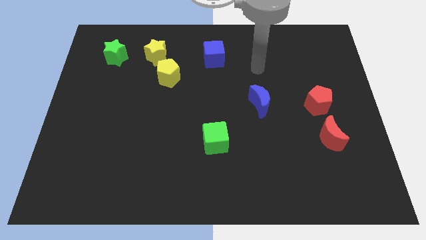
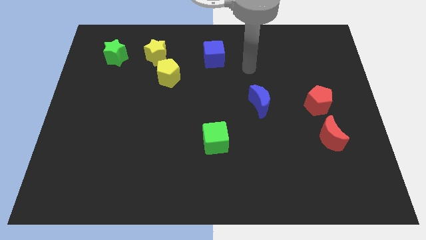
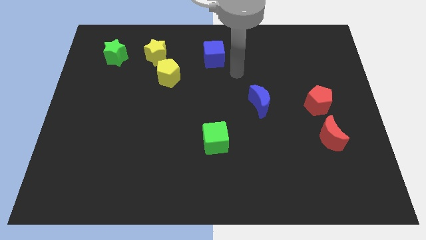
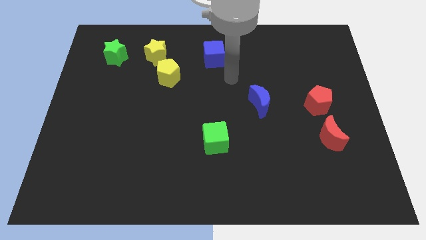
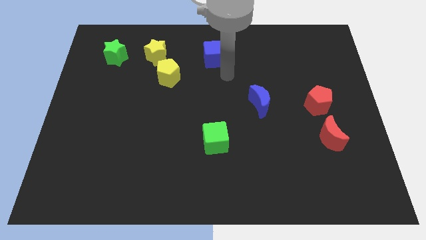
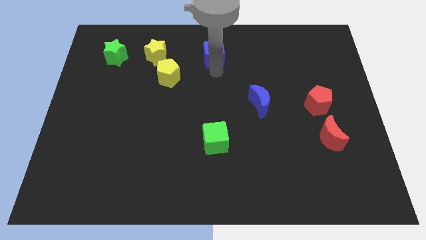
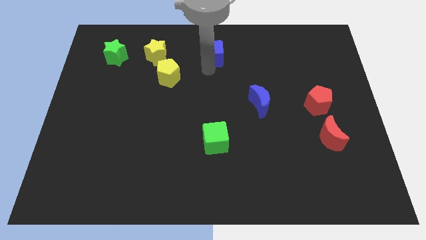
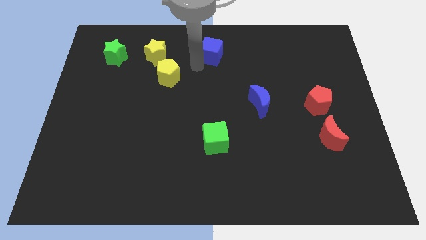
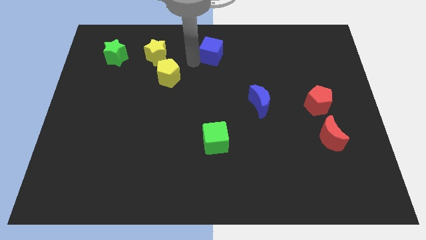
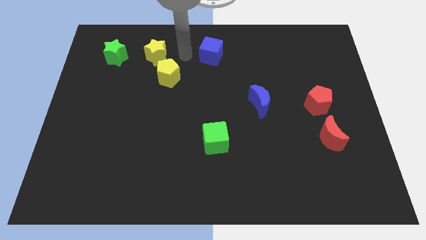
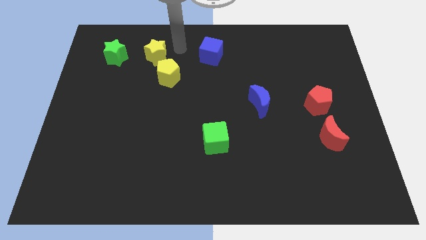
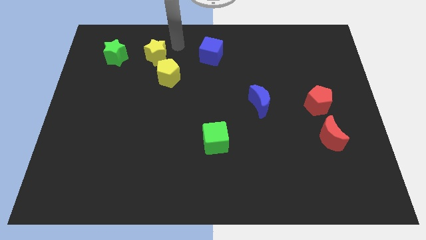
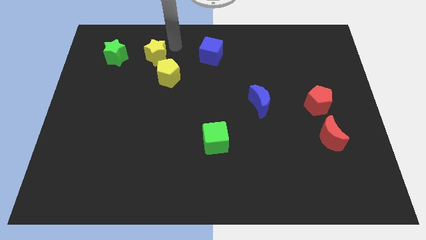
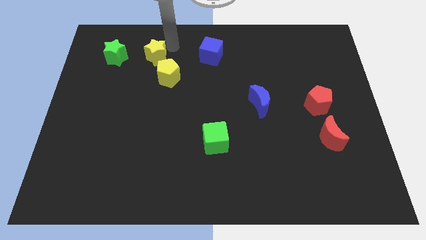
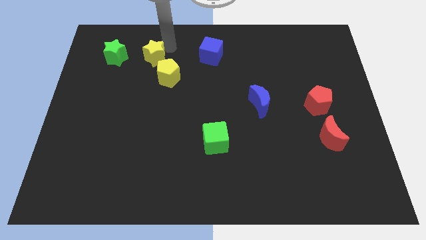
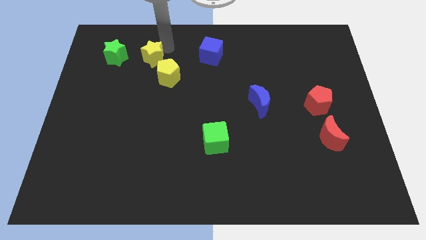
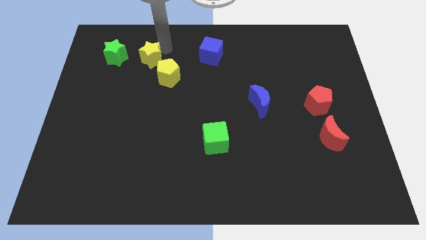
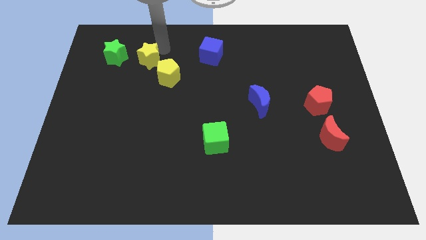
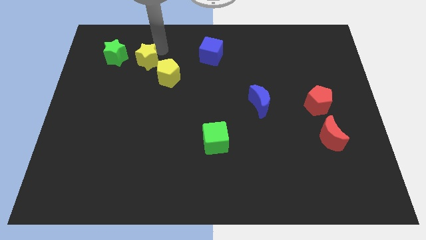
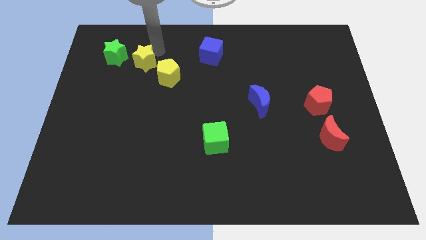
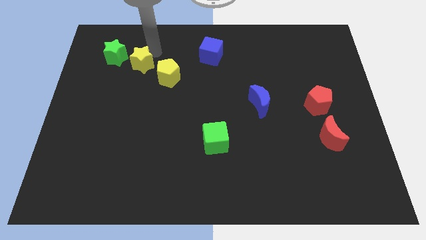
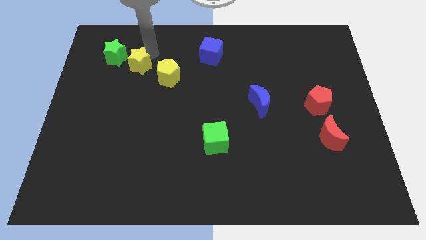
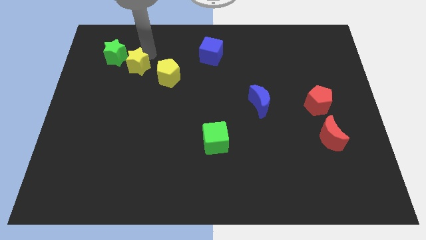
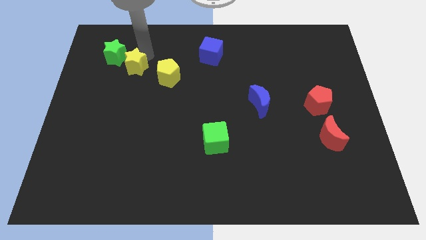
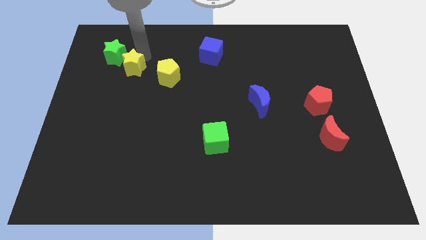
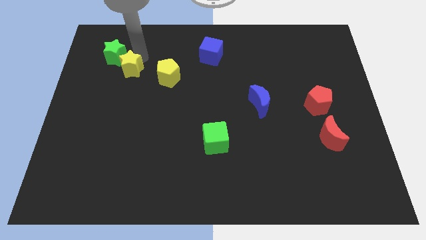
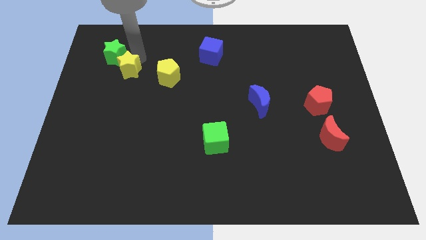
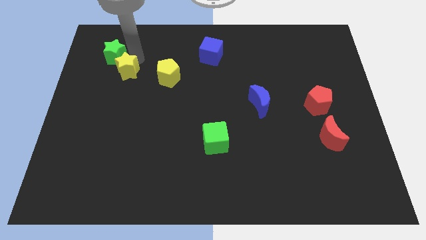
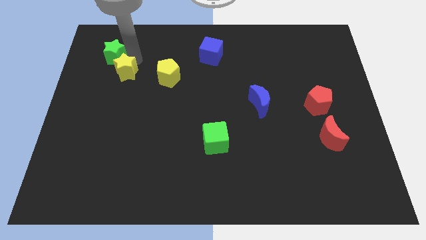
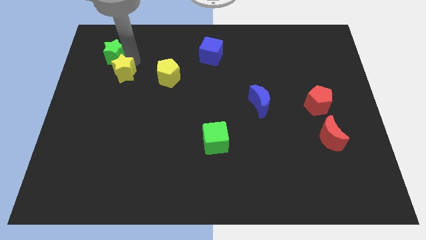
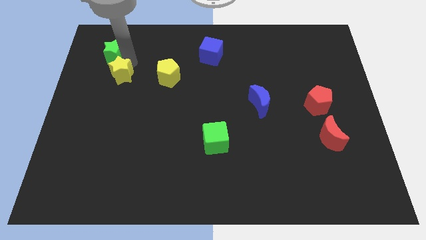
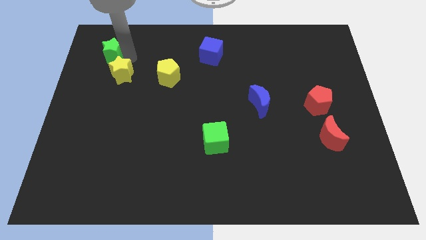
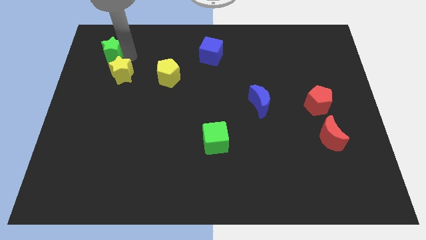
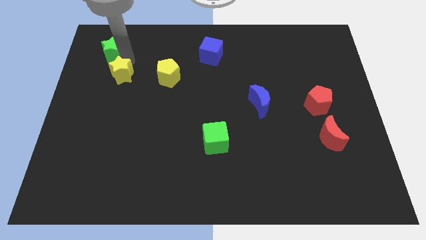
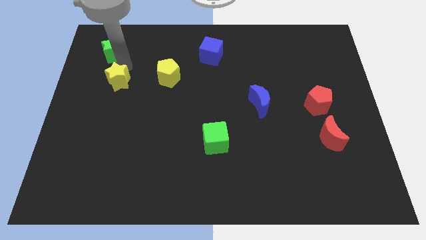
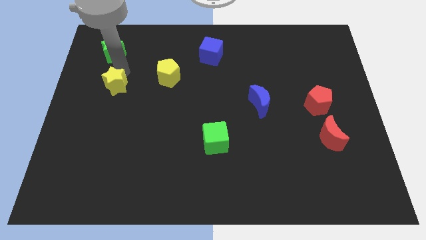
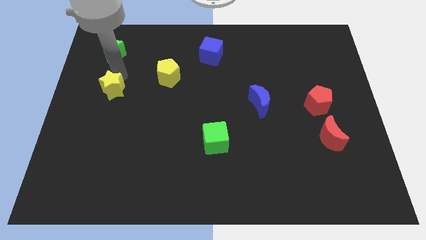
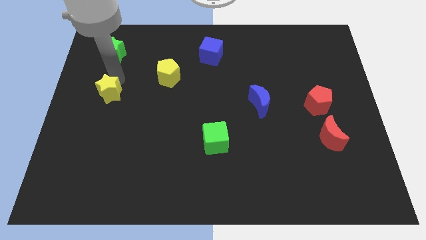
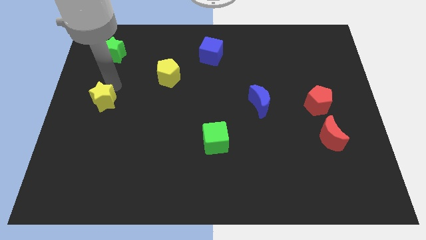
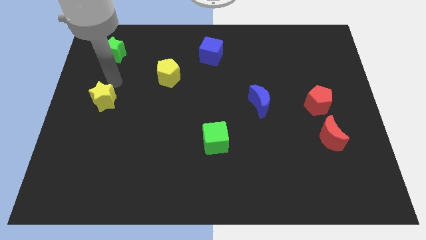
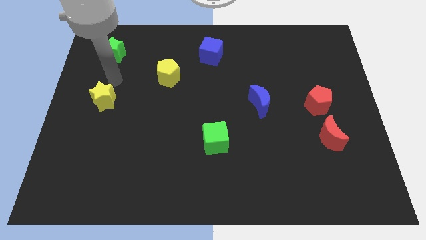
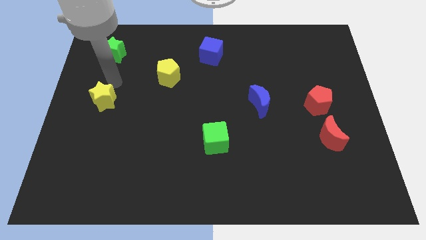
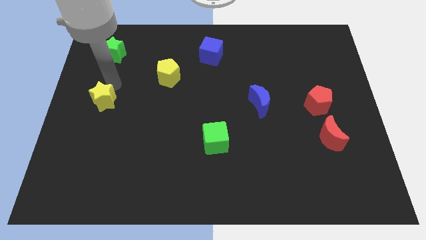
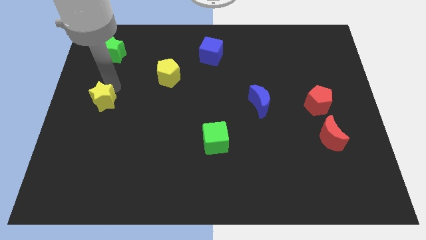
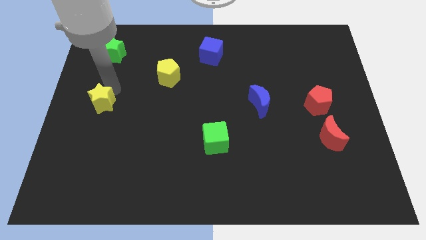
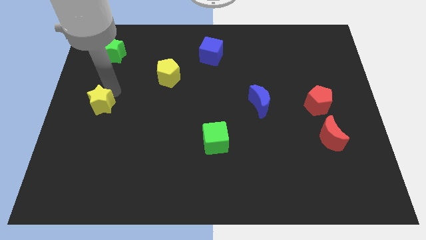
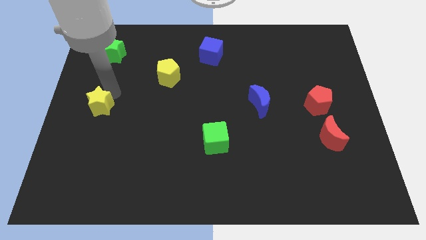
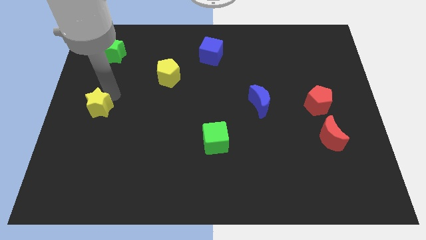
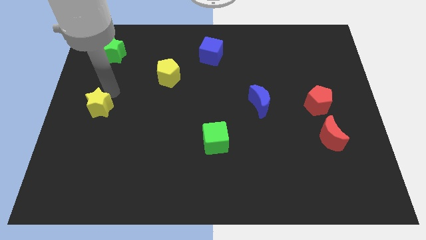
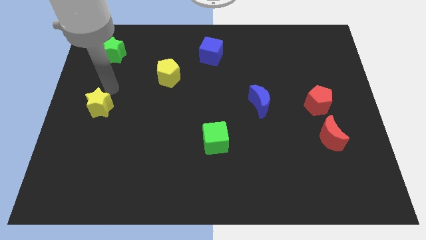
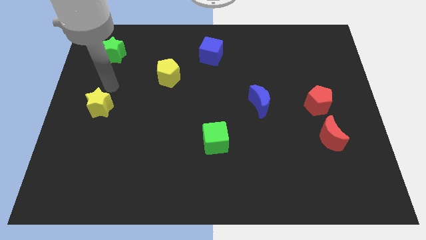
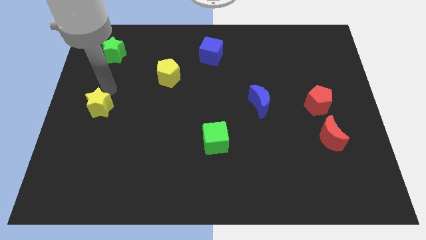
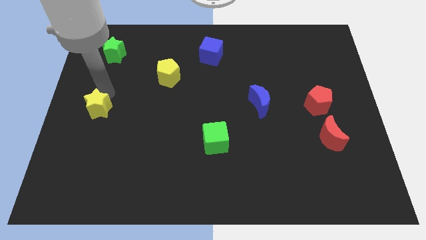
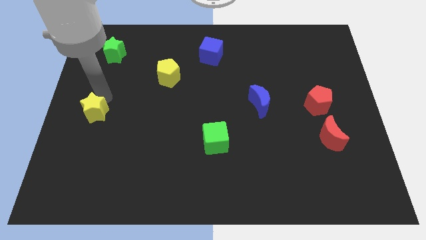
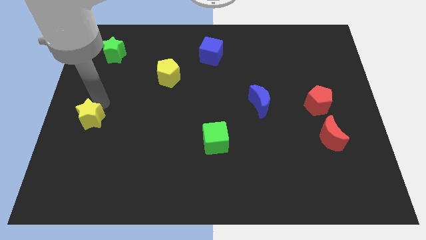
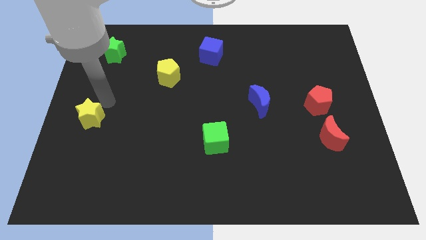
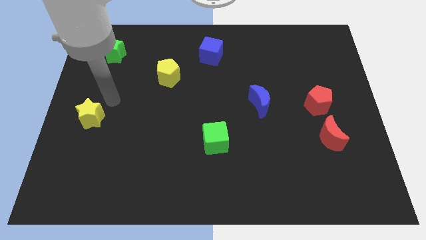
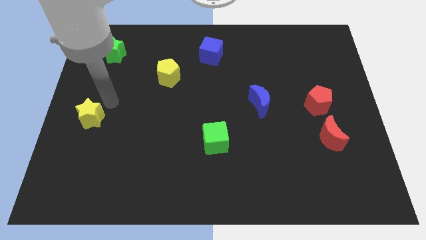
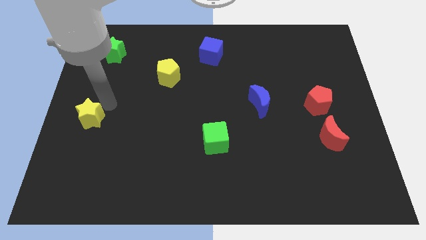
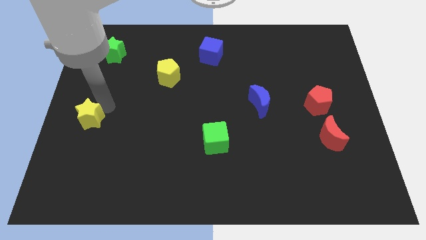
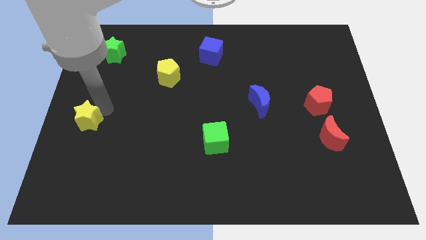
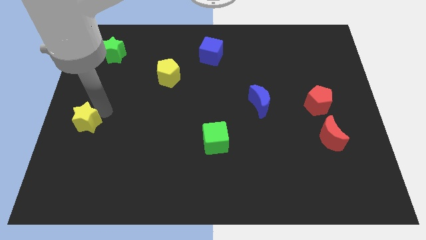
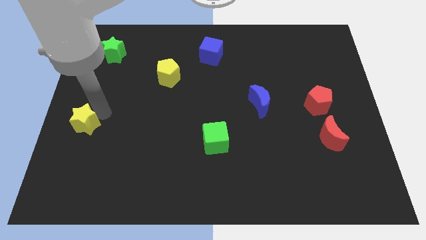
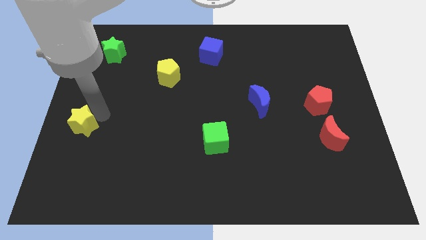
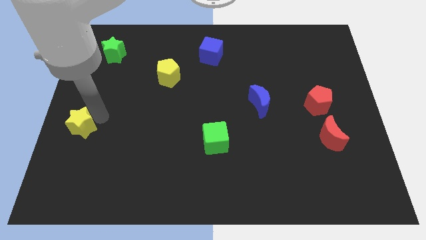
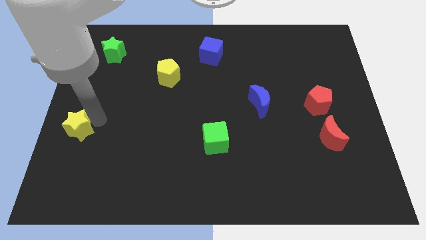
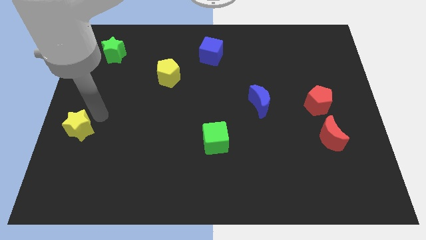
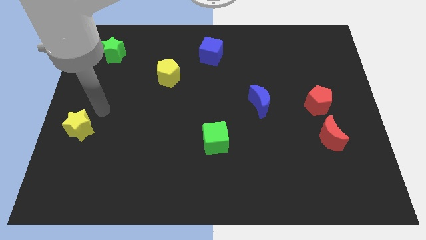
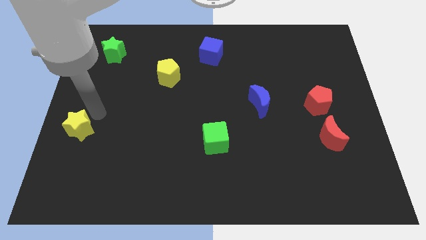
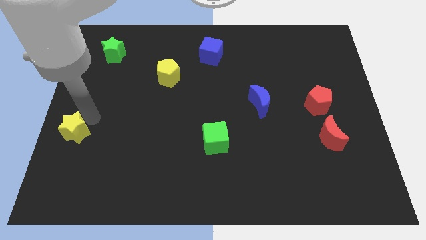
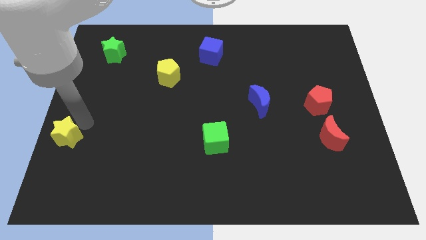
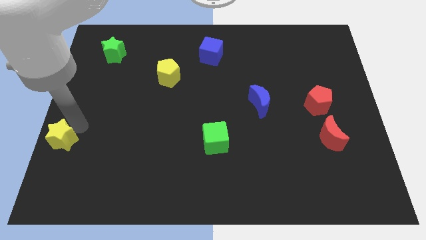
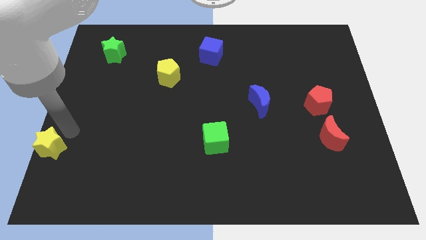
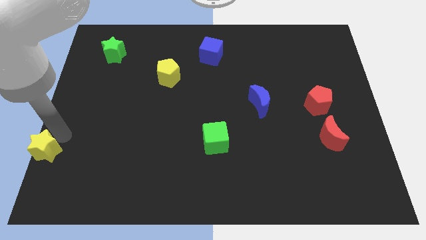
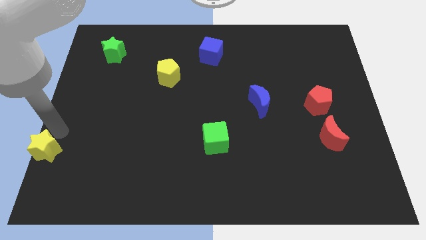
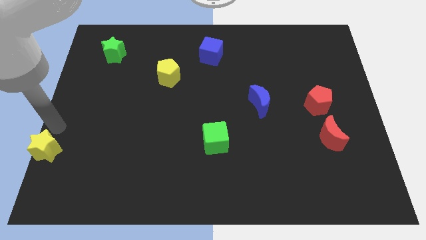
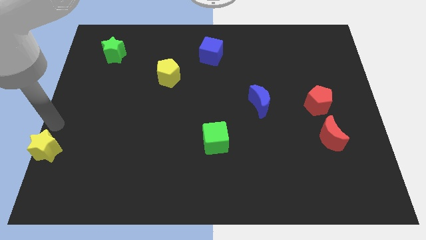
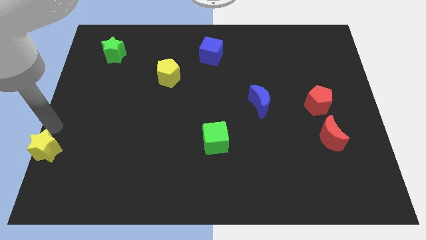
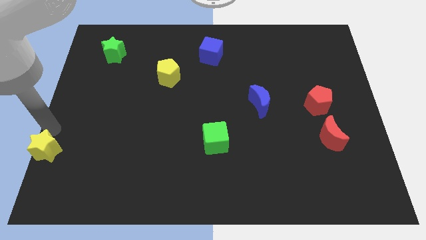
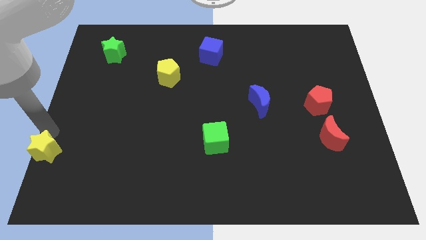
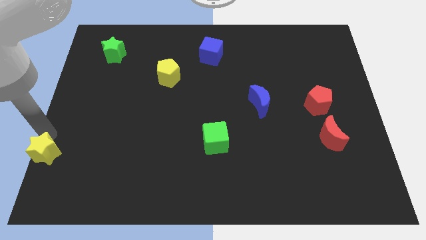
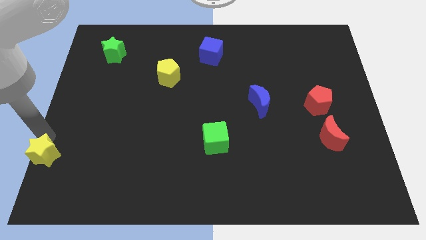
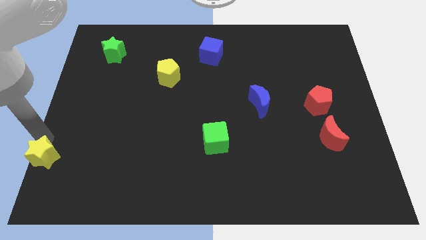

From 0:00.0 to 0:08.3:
put the yellow star to the bottom left
